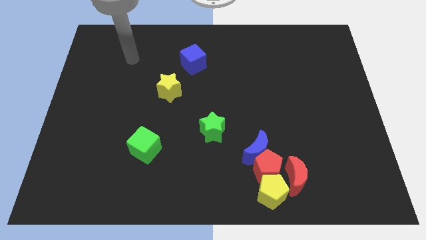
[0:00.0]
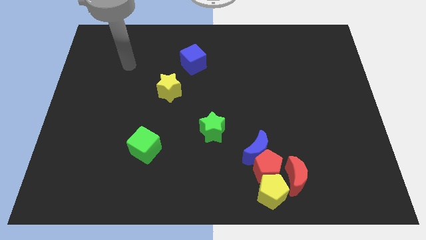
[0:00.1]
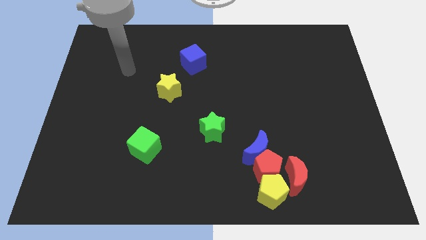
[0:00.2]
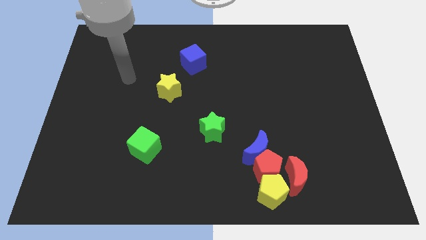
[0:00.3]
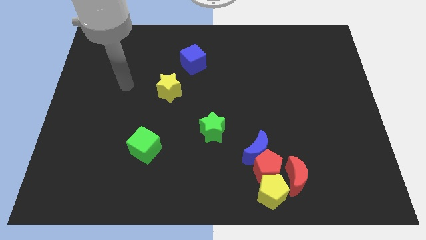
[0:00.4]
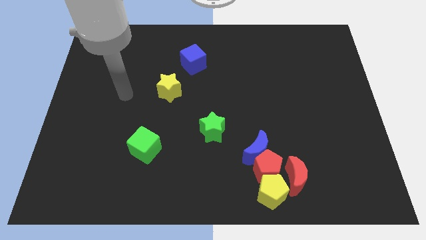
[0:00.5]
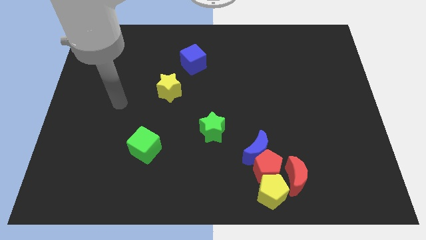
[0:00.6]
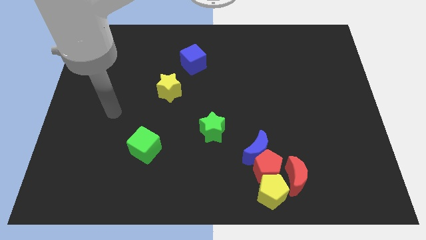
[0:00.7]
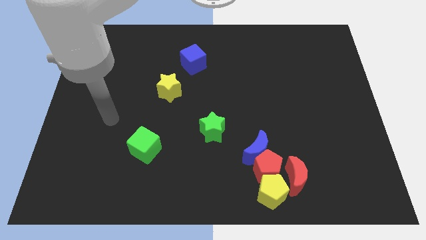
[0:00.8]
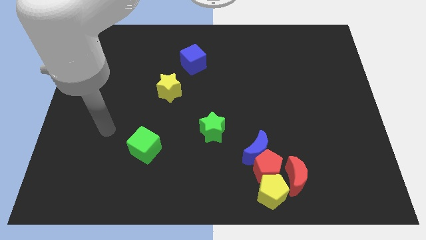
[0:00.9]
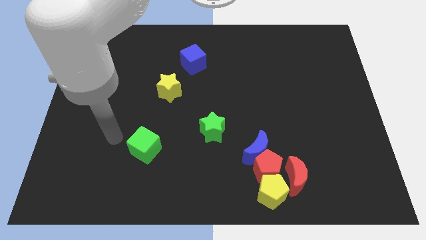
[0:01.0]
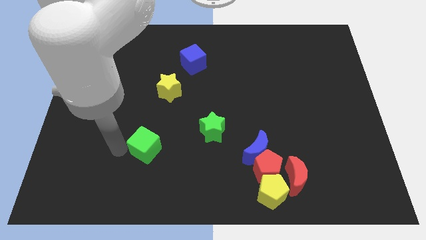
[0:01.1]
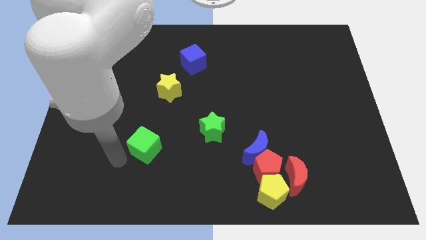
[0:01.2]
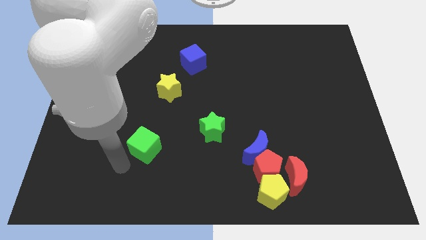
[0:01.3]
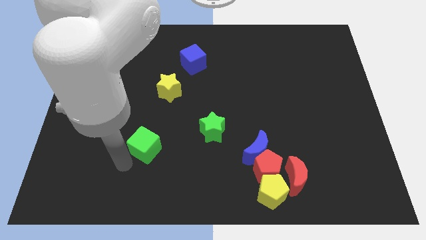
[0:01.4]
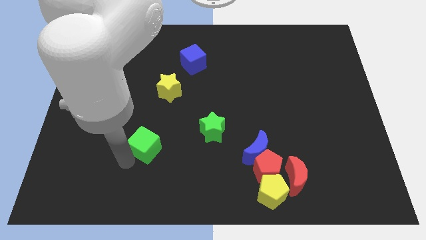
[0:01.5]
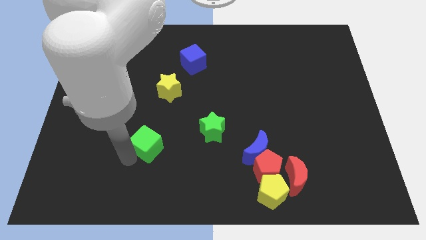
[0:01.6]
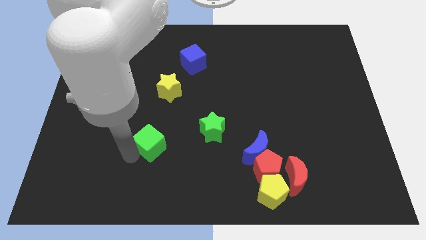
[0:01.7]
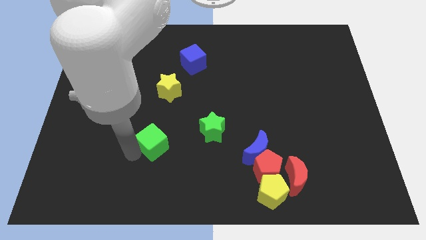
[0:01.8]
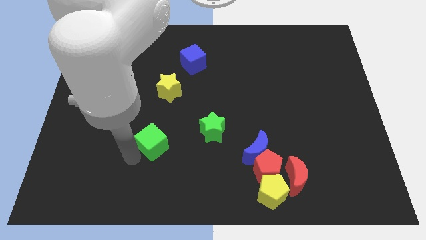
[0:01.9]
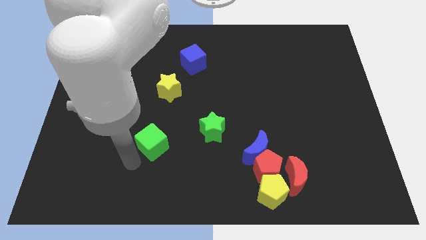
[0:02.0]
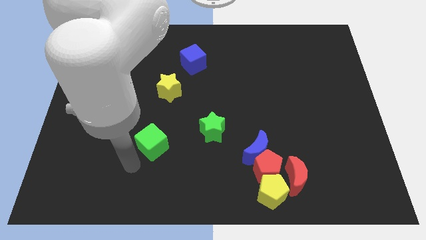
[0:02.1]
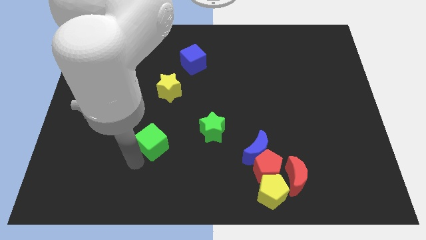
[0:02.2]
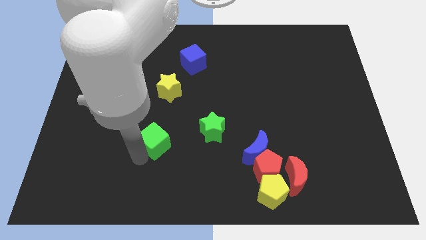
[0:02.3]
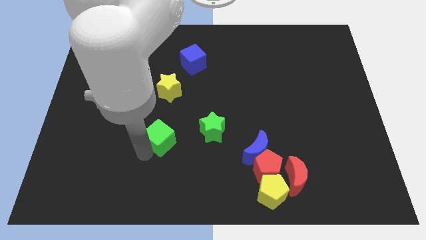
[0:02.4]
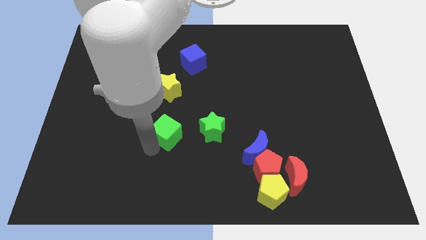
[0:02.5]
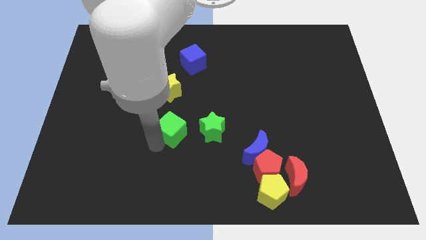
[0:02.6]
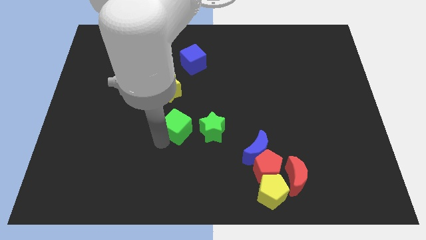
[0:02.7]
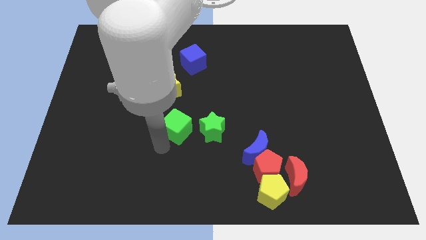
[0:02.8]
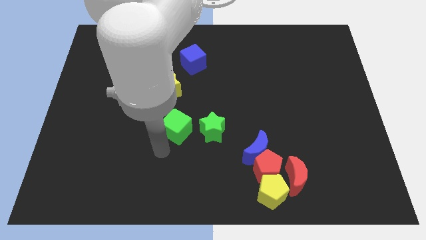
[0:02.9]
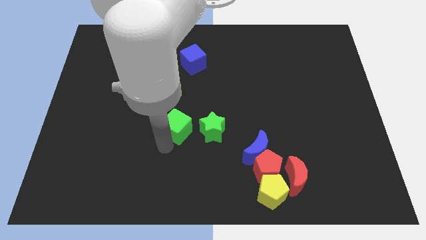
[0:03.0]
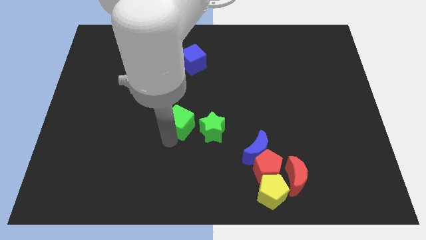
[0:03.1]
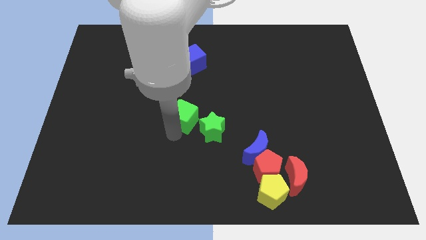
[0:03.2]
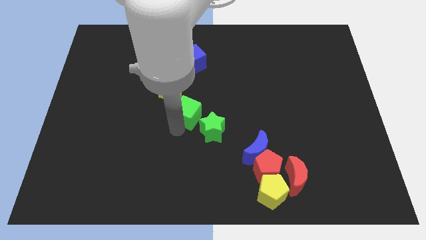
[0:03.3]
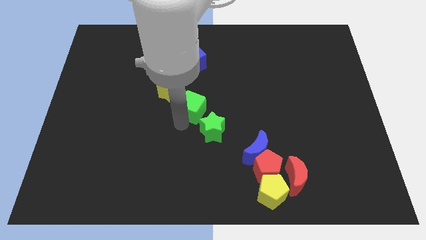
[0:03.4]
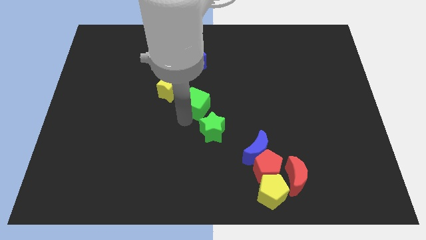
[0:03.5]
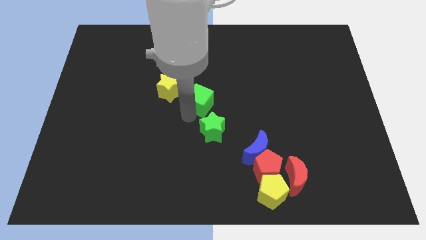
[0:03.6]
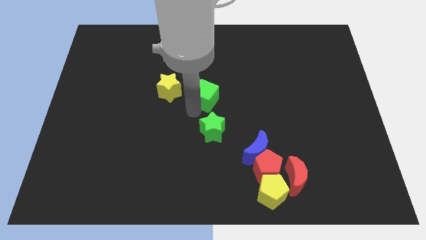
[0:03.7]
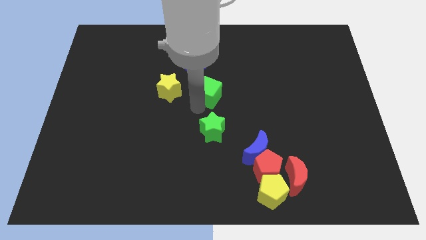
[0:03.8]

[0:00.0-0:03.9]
push the green cube upwards and then to the right

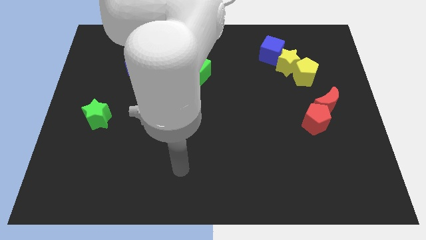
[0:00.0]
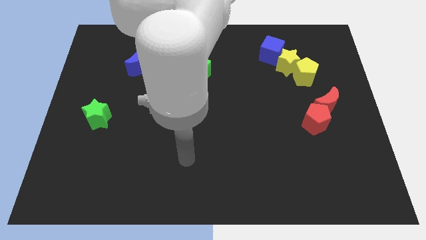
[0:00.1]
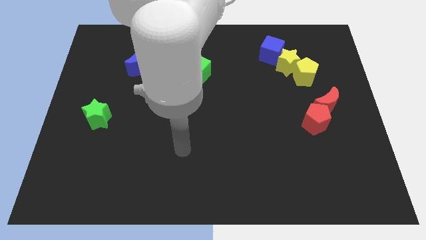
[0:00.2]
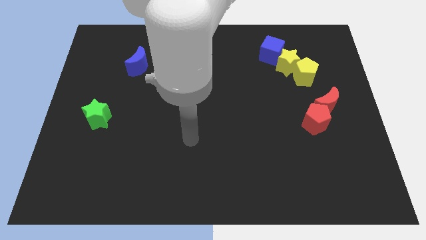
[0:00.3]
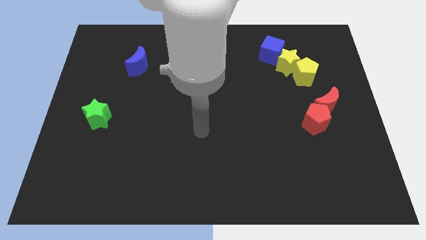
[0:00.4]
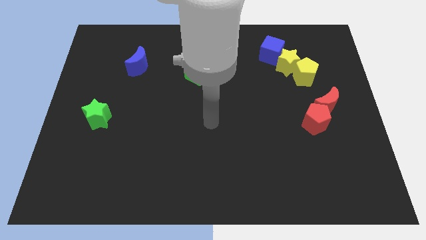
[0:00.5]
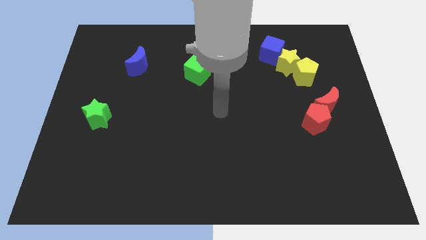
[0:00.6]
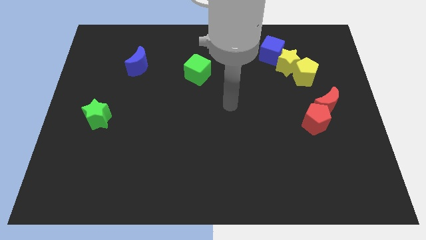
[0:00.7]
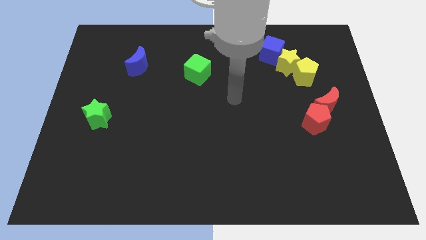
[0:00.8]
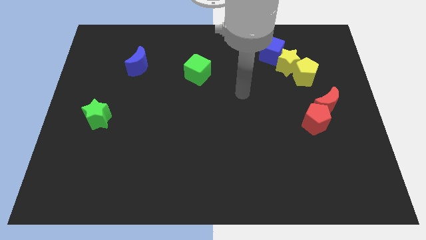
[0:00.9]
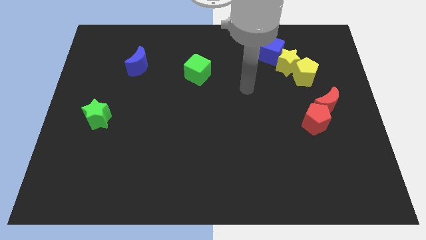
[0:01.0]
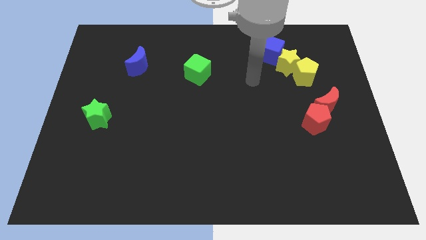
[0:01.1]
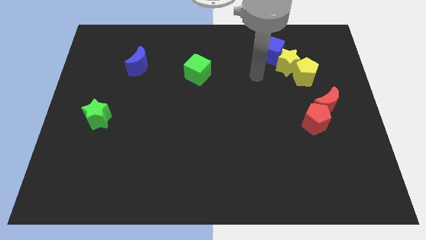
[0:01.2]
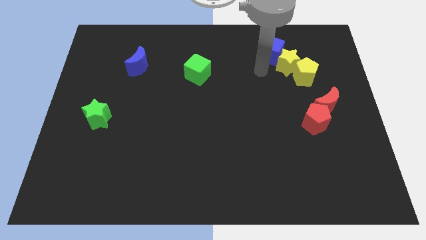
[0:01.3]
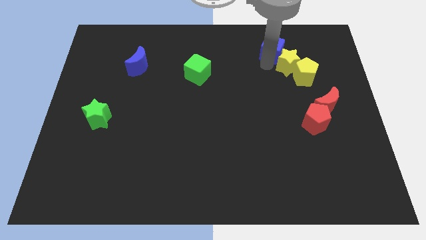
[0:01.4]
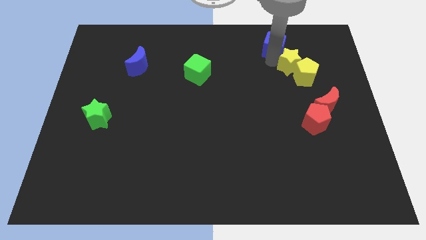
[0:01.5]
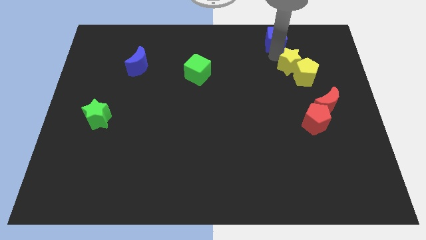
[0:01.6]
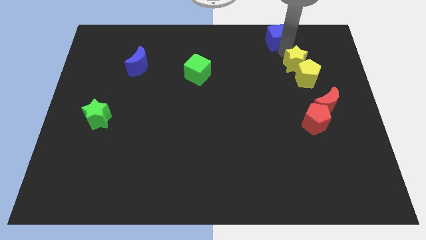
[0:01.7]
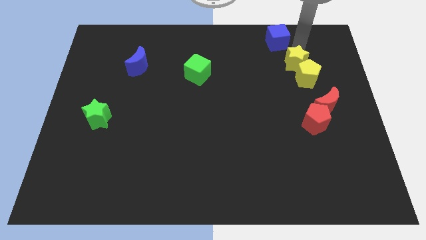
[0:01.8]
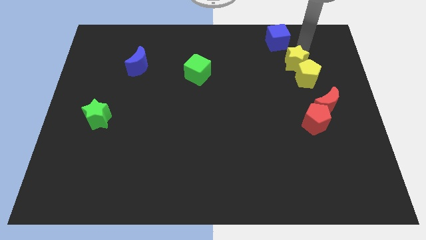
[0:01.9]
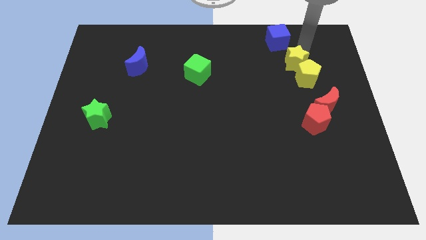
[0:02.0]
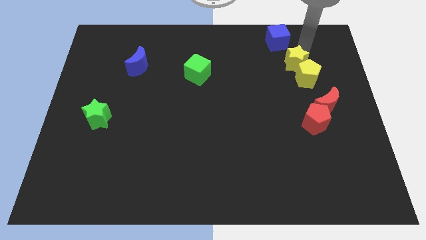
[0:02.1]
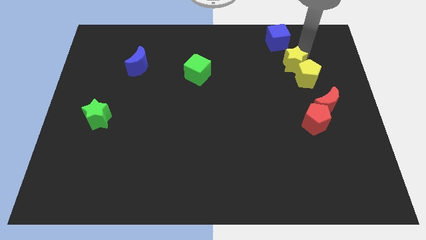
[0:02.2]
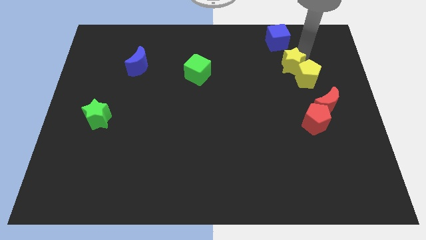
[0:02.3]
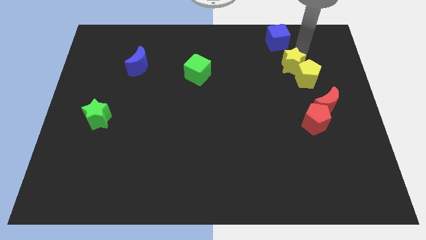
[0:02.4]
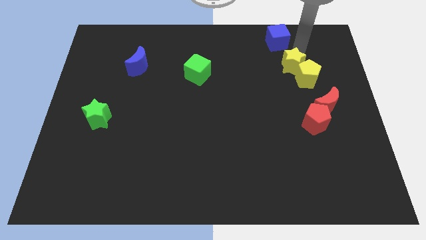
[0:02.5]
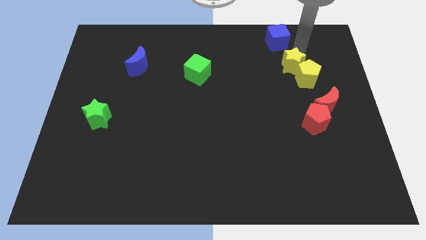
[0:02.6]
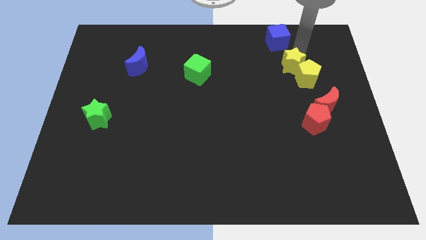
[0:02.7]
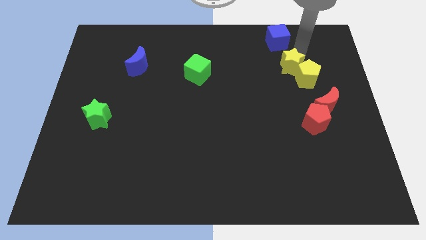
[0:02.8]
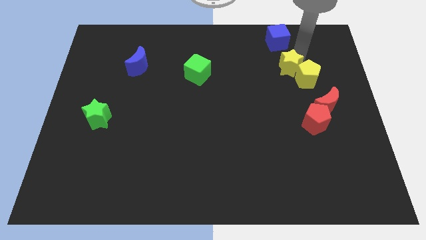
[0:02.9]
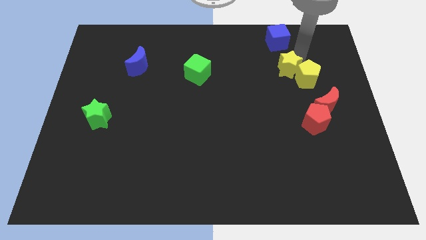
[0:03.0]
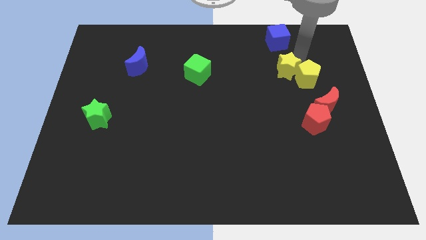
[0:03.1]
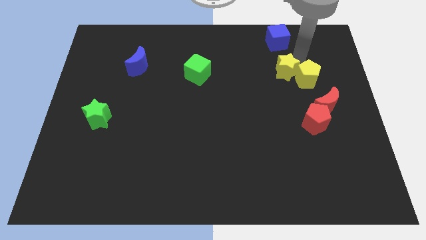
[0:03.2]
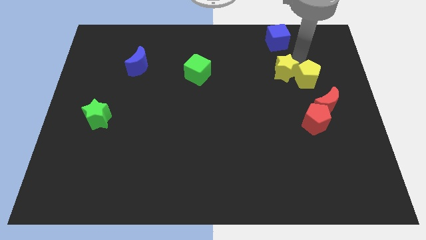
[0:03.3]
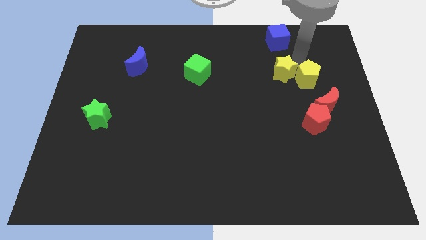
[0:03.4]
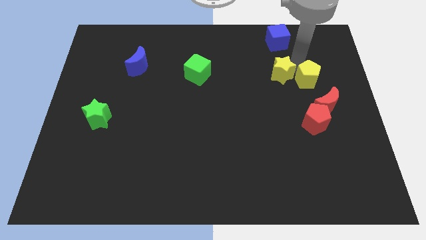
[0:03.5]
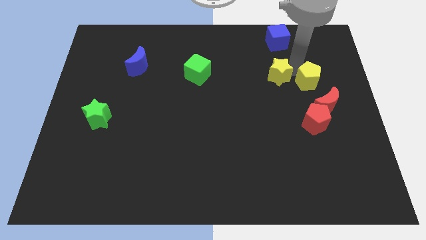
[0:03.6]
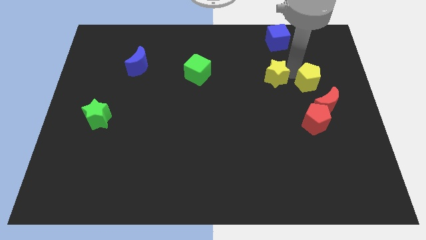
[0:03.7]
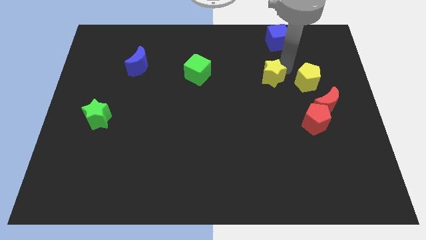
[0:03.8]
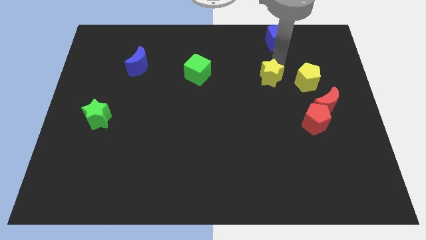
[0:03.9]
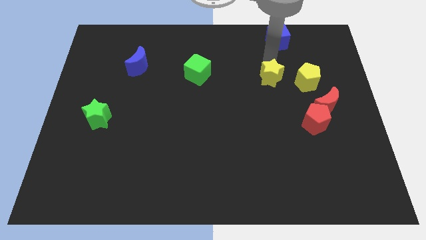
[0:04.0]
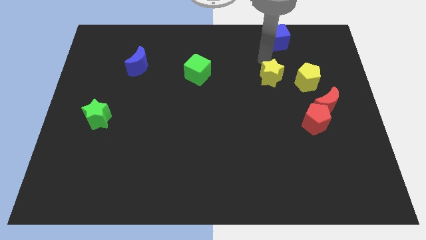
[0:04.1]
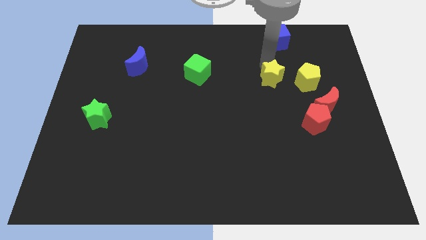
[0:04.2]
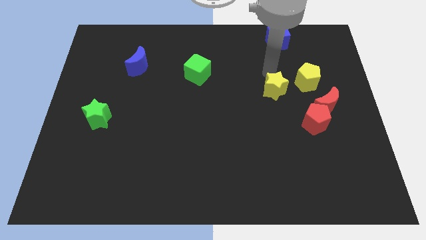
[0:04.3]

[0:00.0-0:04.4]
slightly slide the yellow star down
